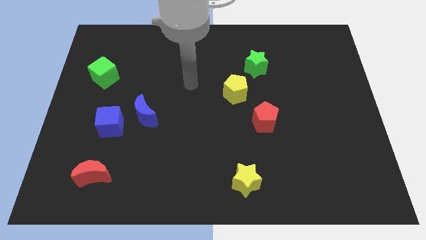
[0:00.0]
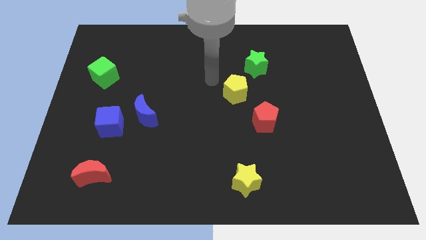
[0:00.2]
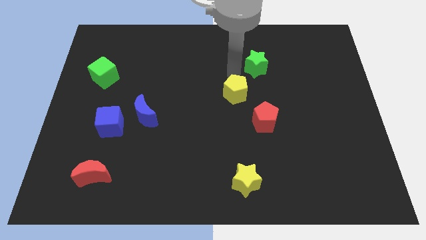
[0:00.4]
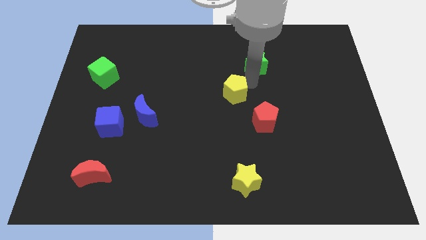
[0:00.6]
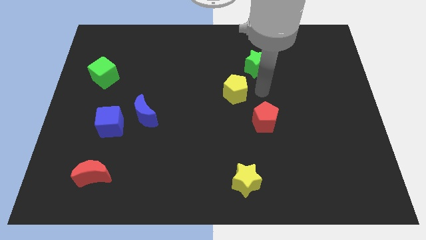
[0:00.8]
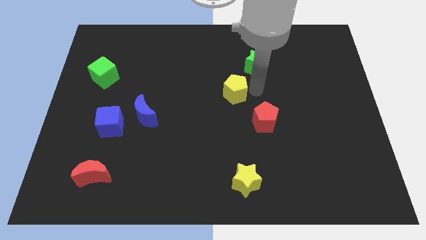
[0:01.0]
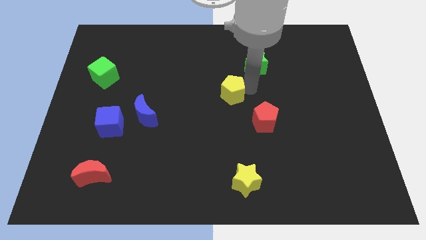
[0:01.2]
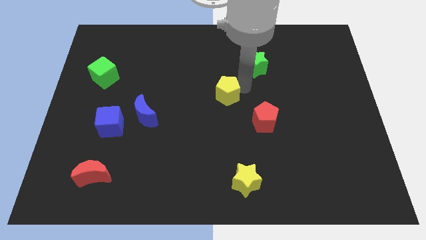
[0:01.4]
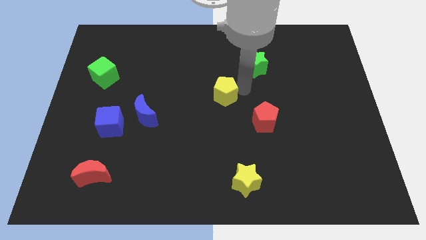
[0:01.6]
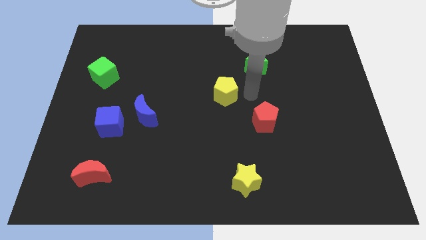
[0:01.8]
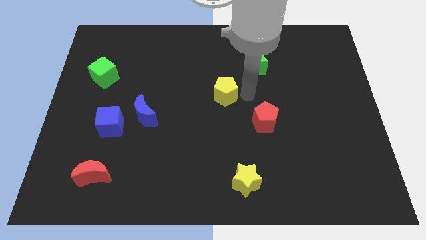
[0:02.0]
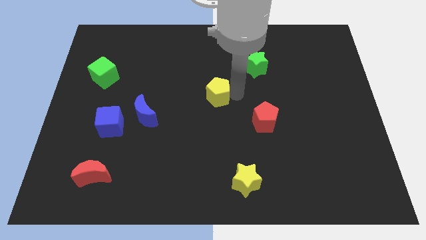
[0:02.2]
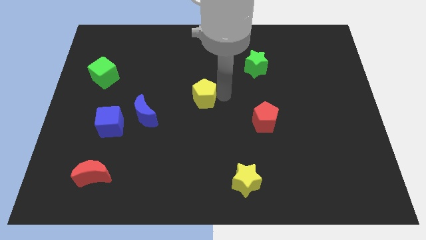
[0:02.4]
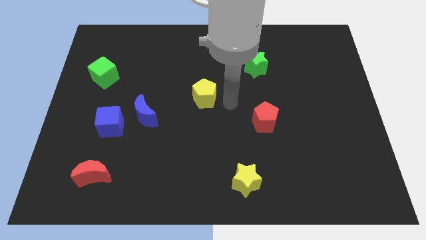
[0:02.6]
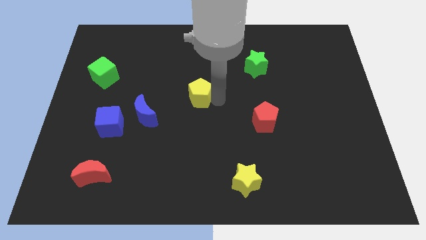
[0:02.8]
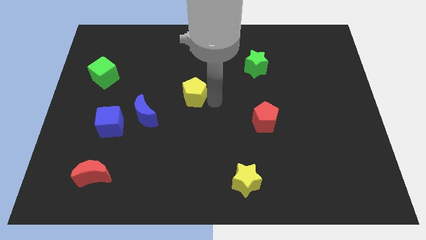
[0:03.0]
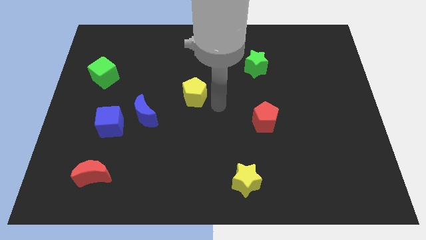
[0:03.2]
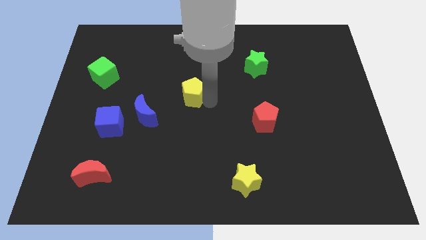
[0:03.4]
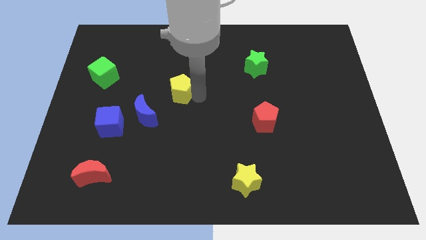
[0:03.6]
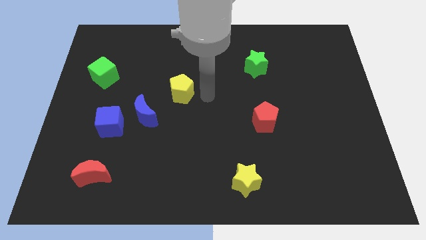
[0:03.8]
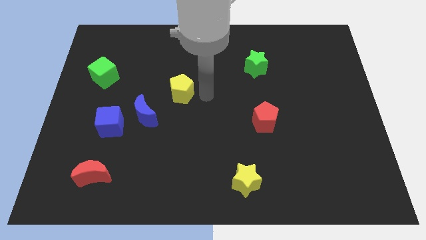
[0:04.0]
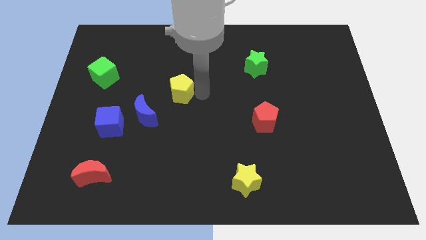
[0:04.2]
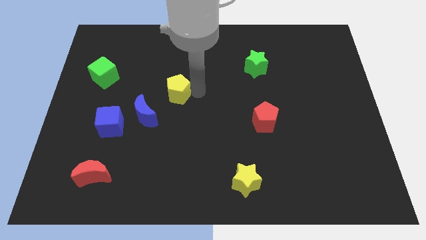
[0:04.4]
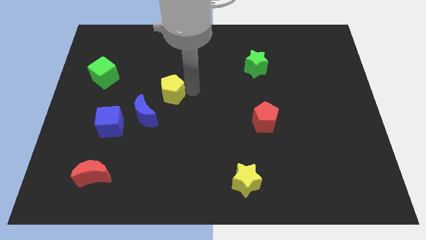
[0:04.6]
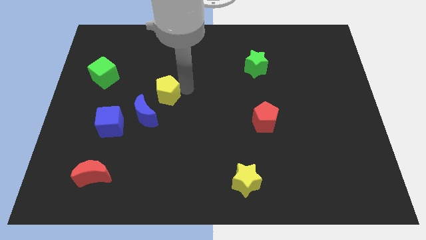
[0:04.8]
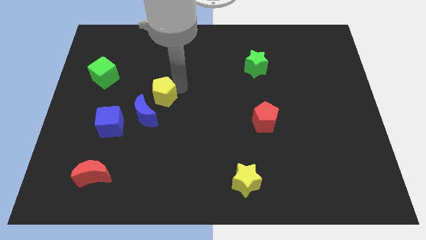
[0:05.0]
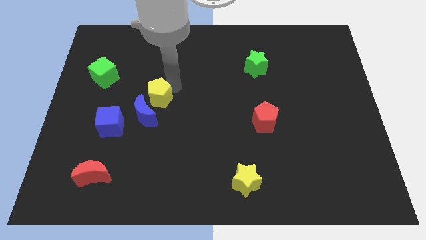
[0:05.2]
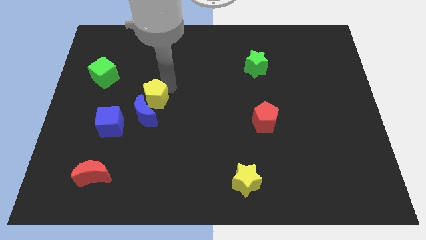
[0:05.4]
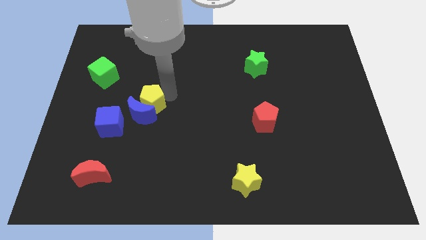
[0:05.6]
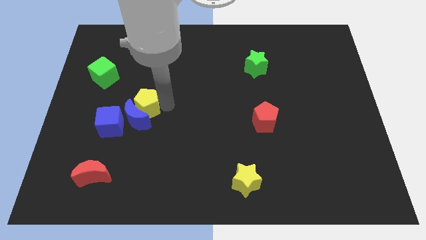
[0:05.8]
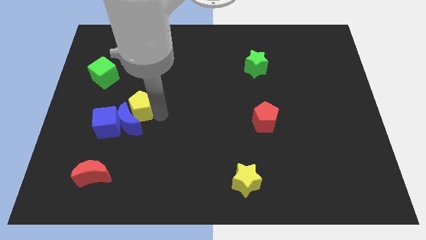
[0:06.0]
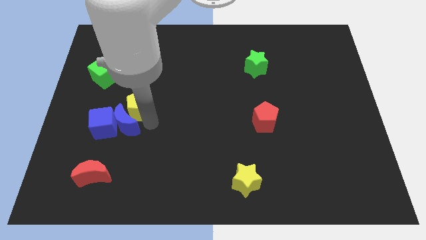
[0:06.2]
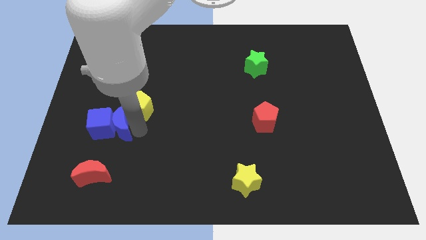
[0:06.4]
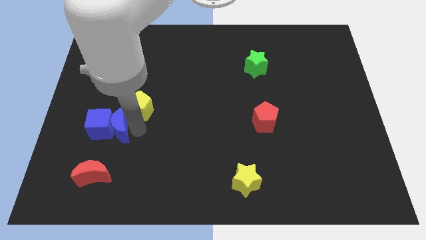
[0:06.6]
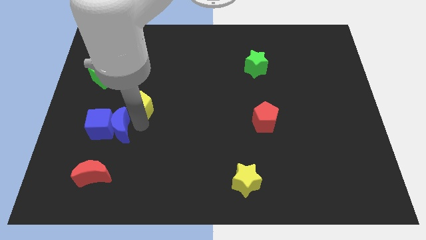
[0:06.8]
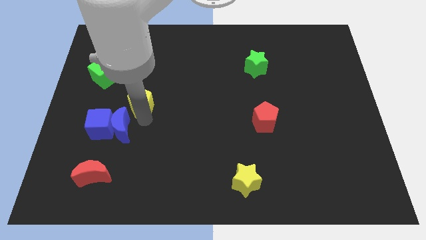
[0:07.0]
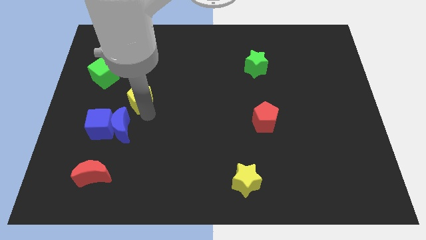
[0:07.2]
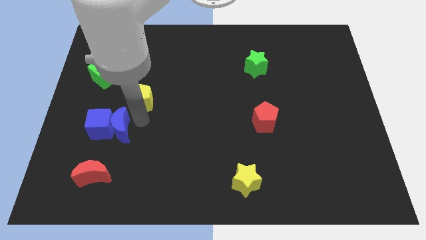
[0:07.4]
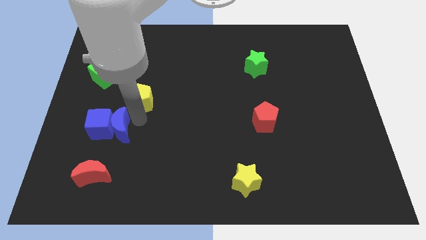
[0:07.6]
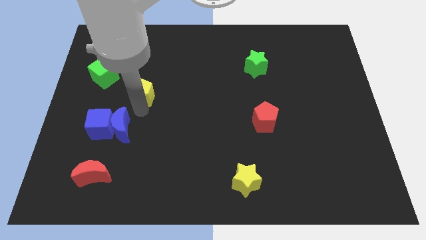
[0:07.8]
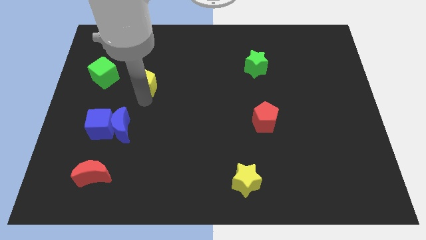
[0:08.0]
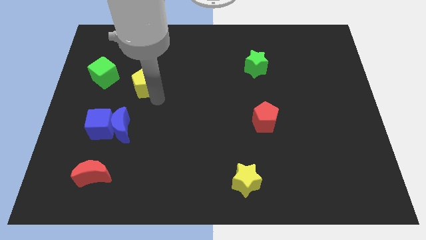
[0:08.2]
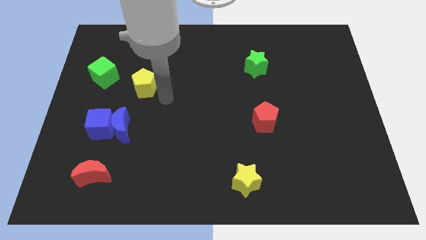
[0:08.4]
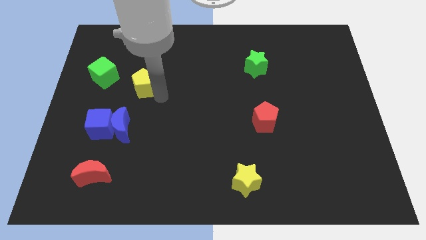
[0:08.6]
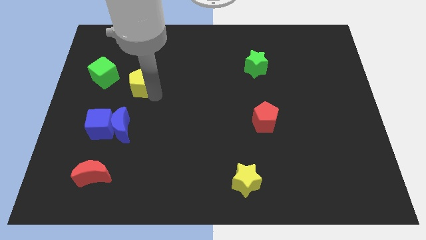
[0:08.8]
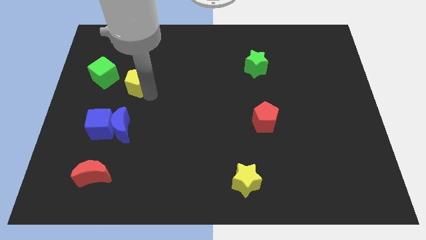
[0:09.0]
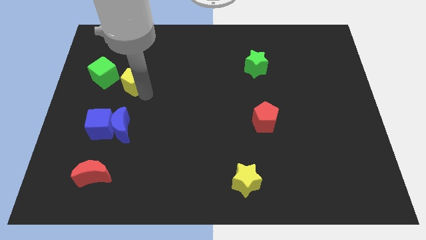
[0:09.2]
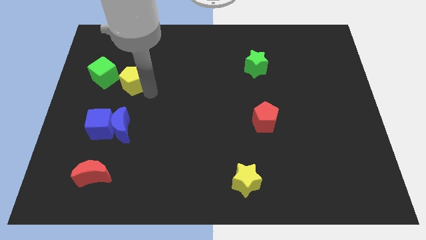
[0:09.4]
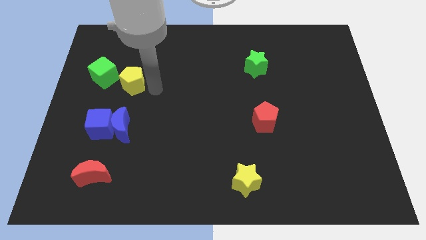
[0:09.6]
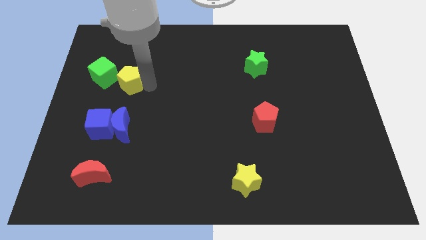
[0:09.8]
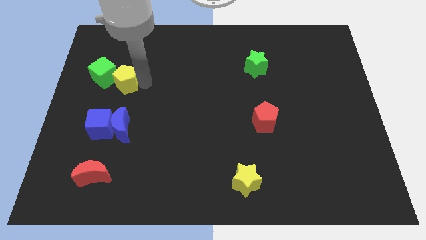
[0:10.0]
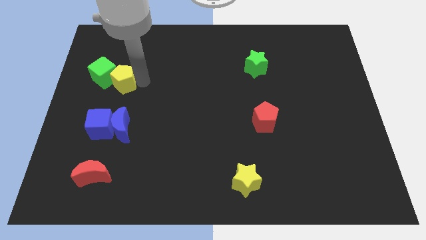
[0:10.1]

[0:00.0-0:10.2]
move the yellow pentagon close to the green cube

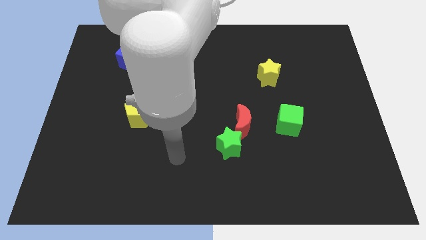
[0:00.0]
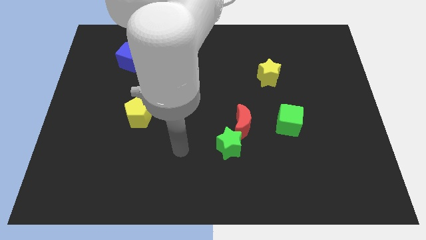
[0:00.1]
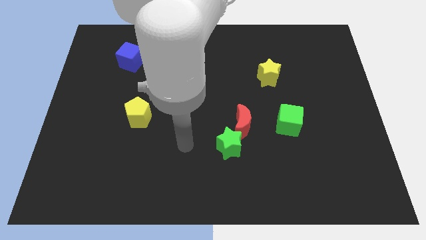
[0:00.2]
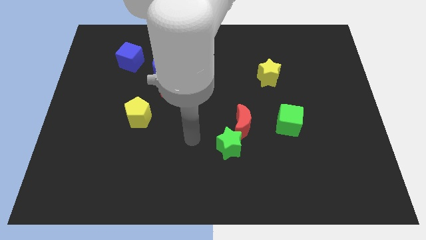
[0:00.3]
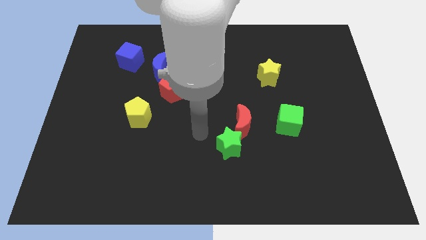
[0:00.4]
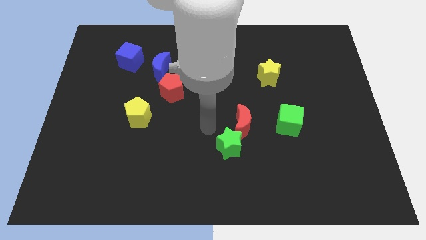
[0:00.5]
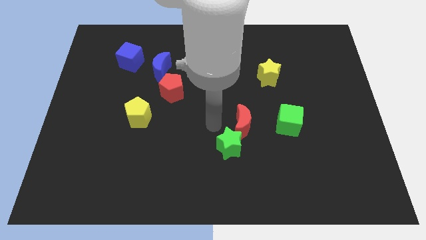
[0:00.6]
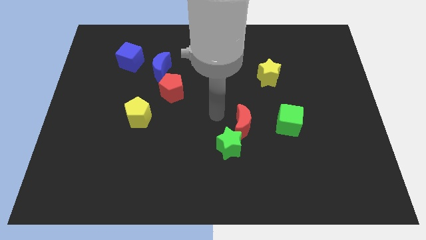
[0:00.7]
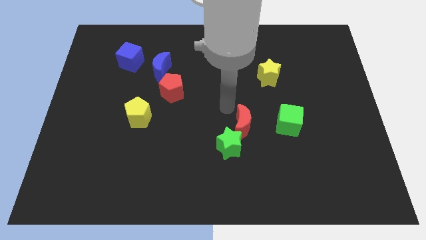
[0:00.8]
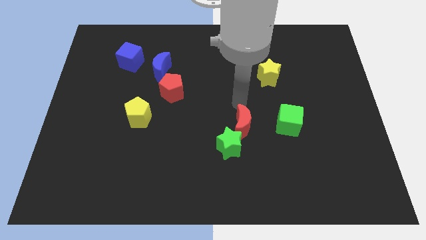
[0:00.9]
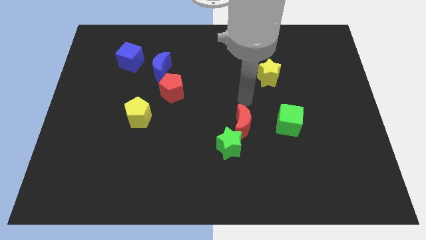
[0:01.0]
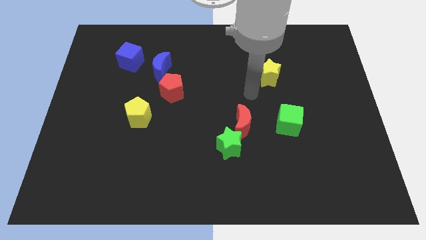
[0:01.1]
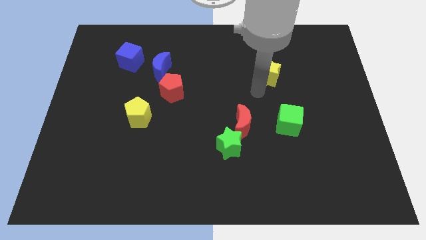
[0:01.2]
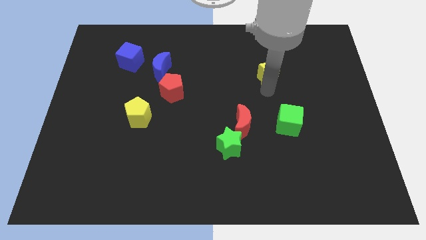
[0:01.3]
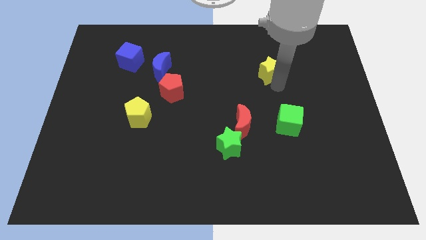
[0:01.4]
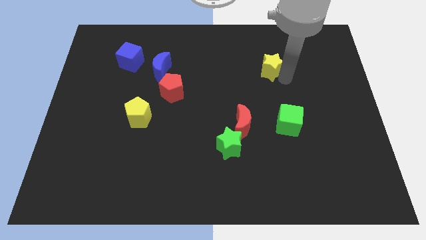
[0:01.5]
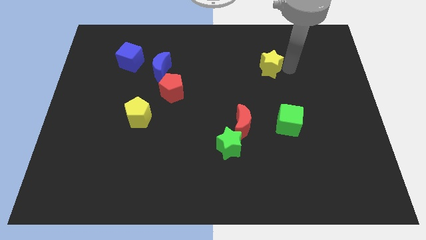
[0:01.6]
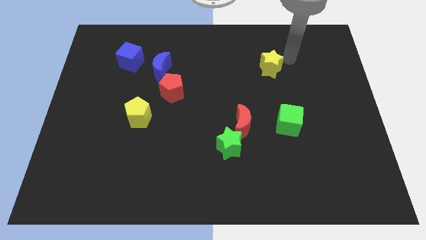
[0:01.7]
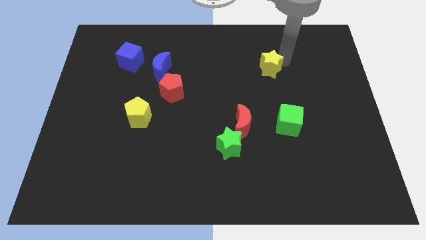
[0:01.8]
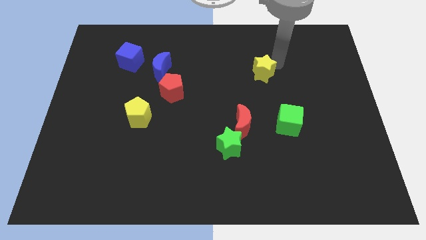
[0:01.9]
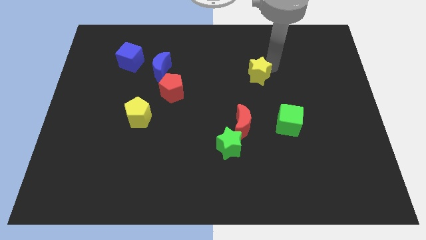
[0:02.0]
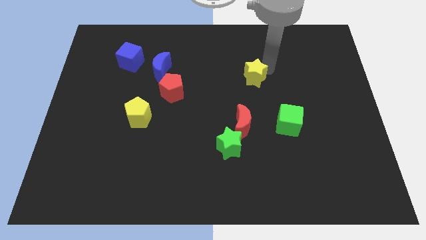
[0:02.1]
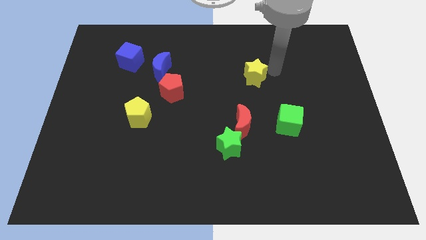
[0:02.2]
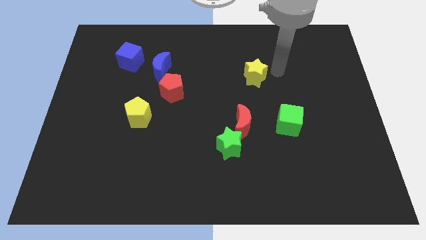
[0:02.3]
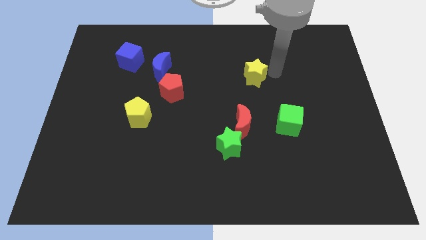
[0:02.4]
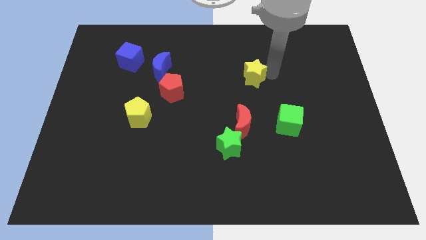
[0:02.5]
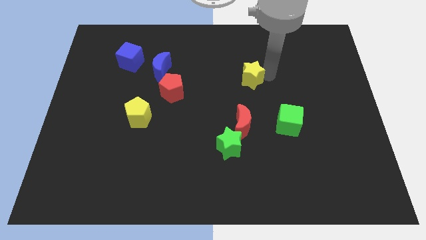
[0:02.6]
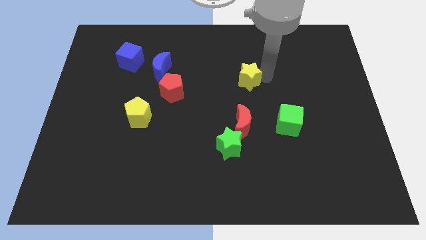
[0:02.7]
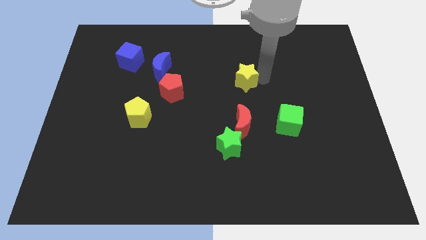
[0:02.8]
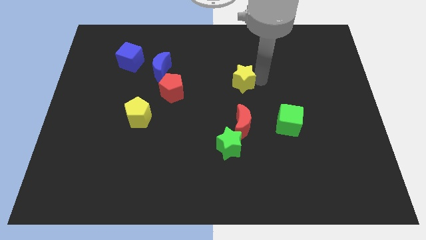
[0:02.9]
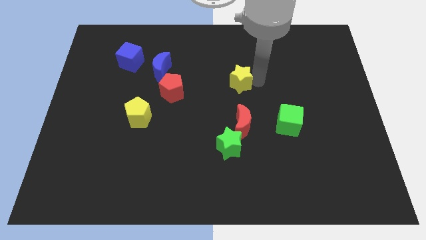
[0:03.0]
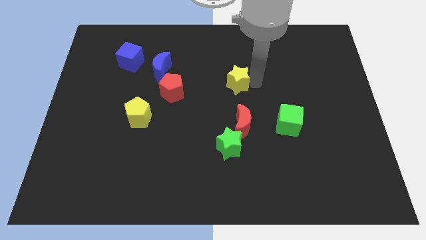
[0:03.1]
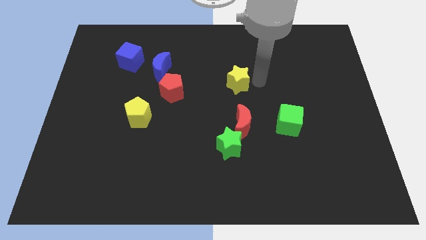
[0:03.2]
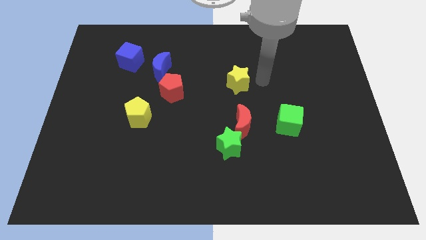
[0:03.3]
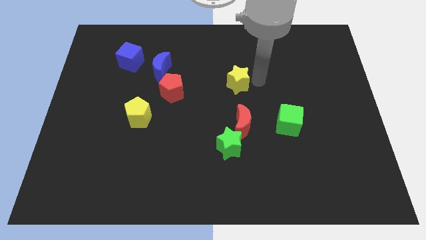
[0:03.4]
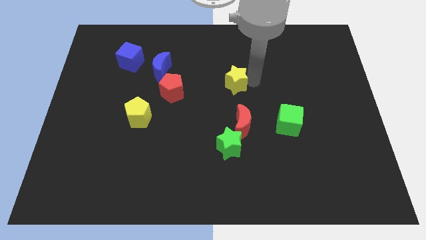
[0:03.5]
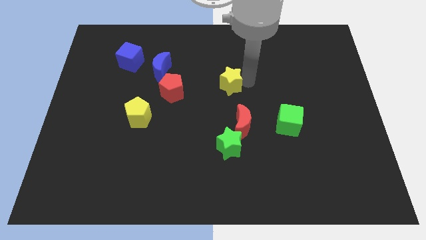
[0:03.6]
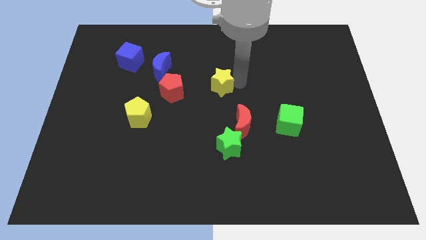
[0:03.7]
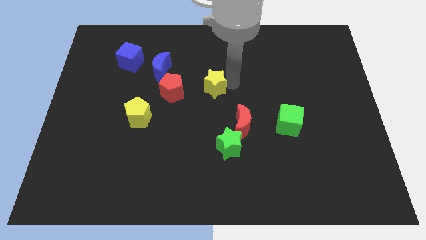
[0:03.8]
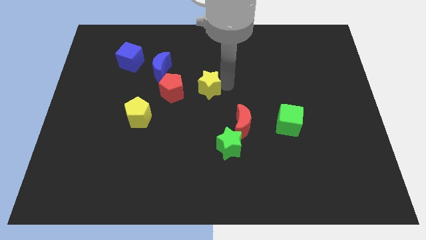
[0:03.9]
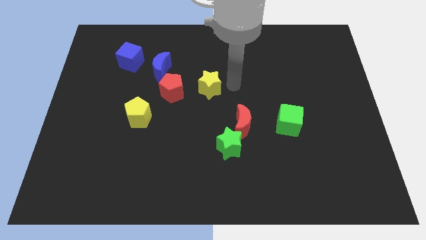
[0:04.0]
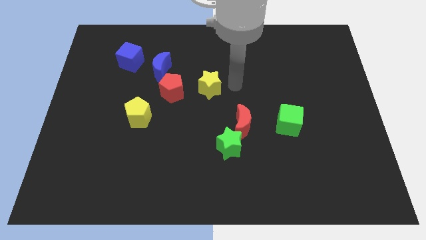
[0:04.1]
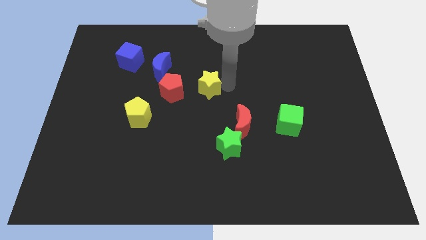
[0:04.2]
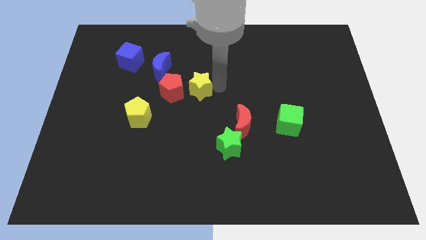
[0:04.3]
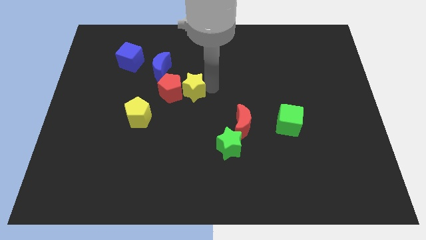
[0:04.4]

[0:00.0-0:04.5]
slide the yellow star close to the red pentagon
